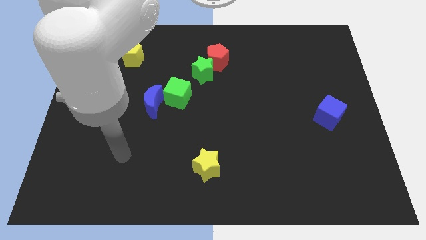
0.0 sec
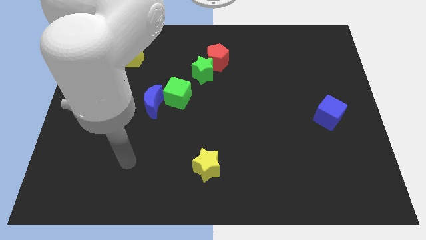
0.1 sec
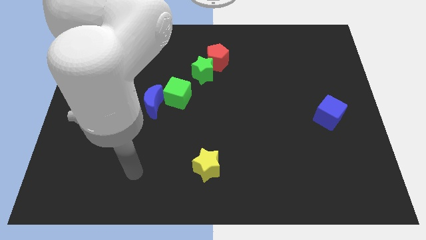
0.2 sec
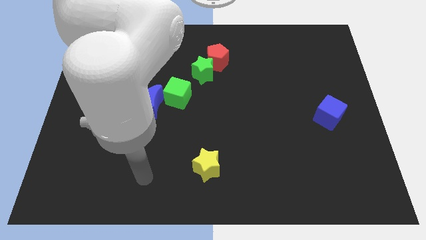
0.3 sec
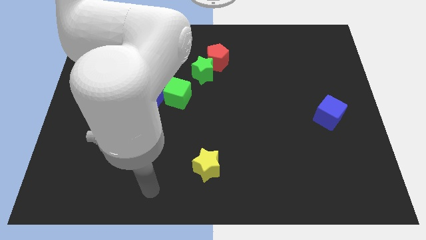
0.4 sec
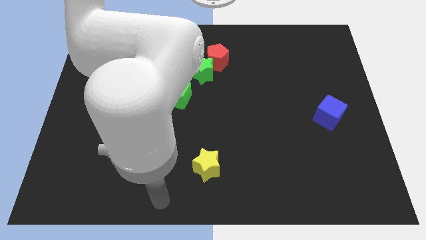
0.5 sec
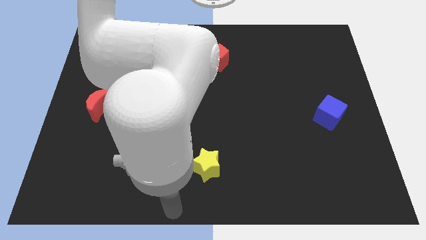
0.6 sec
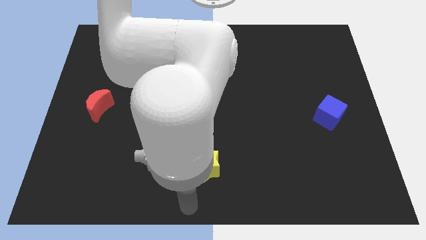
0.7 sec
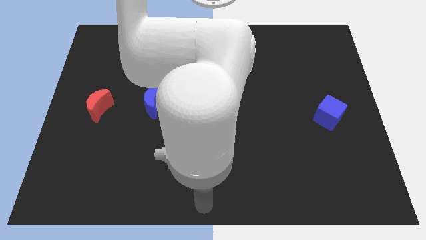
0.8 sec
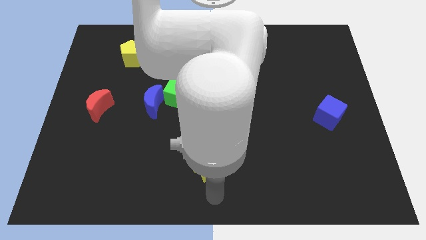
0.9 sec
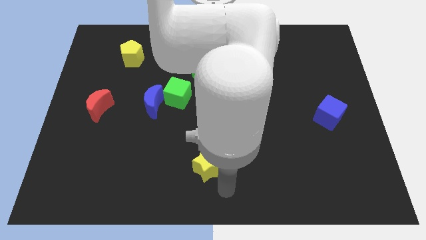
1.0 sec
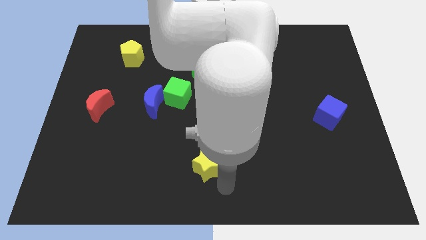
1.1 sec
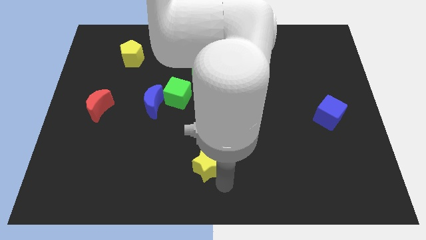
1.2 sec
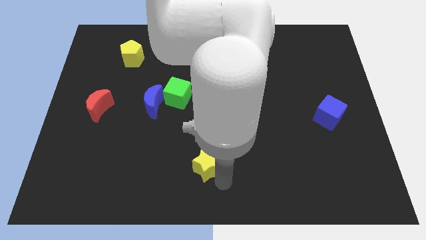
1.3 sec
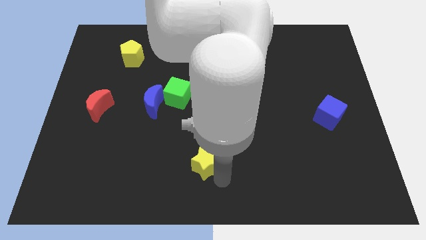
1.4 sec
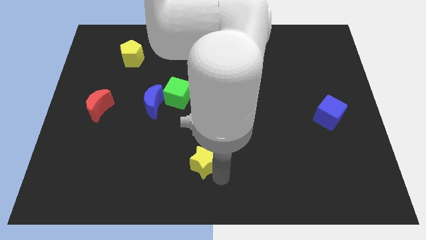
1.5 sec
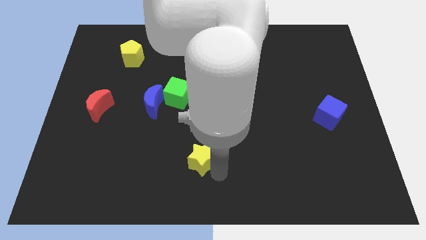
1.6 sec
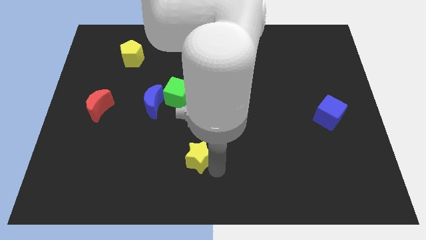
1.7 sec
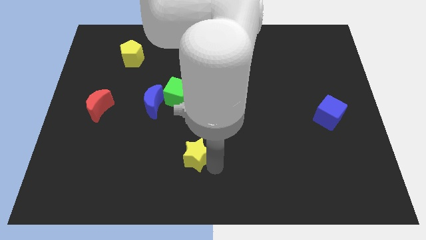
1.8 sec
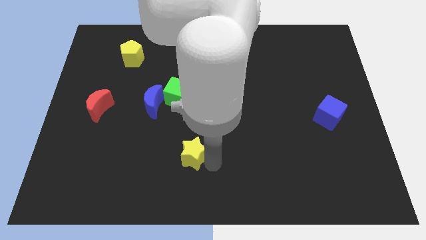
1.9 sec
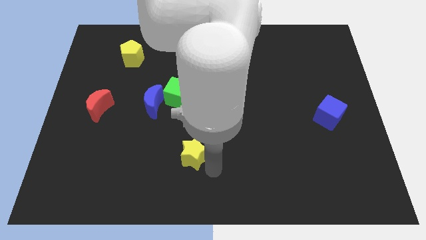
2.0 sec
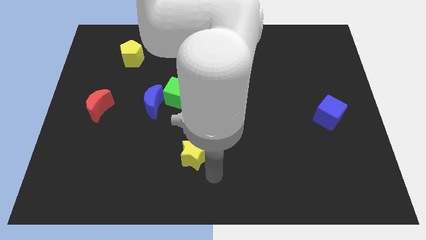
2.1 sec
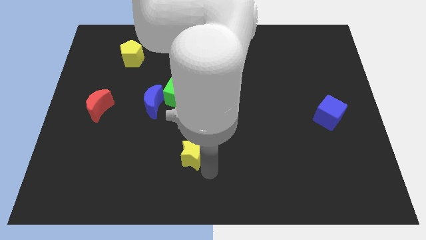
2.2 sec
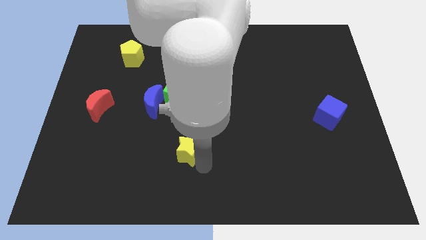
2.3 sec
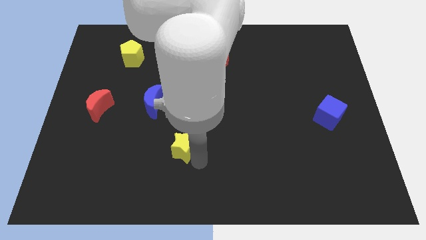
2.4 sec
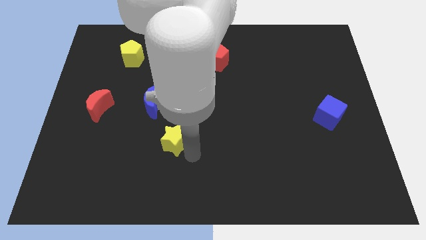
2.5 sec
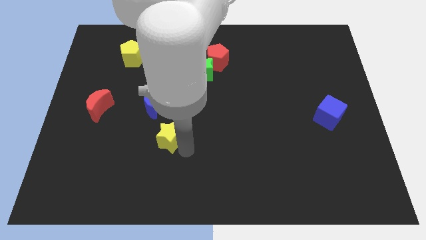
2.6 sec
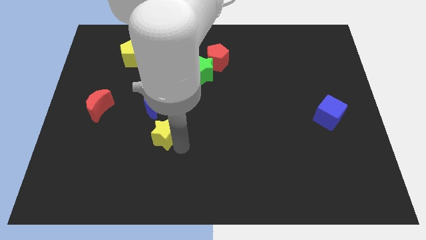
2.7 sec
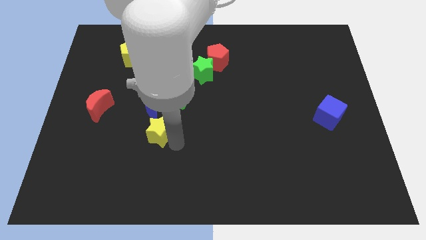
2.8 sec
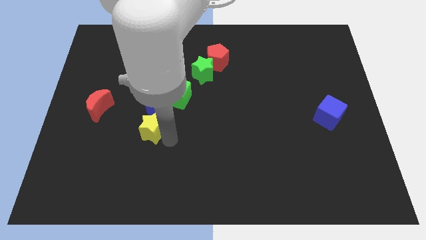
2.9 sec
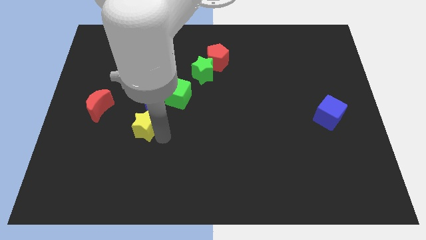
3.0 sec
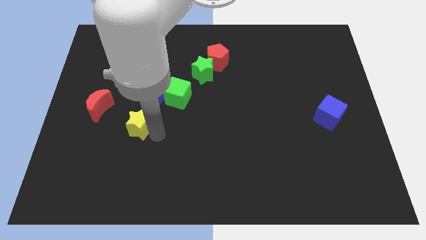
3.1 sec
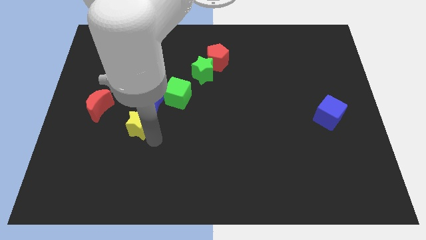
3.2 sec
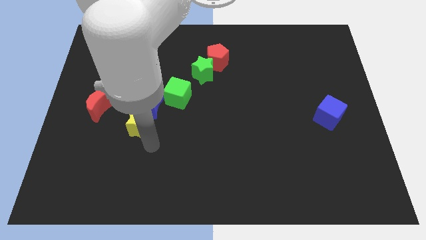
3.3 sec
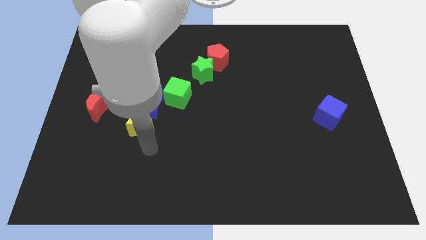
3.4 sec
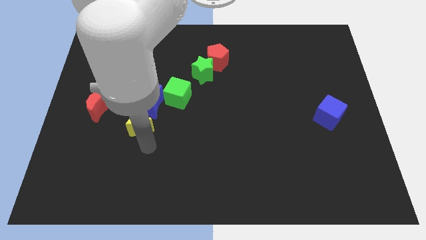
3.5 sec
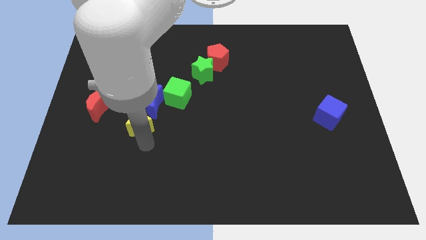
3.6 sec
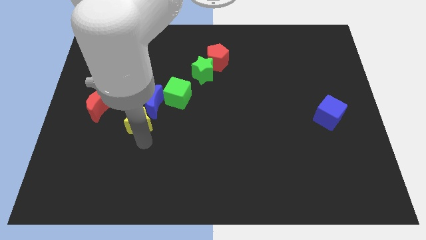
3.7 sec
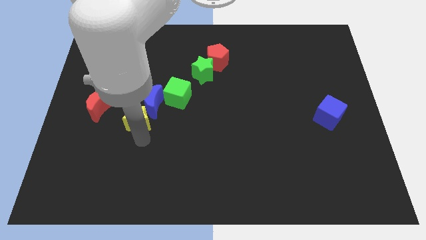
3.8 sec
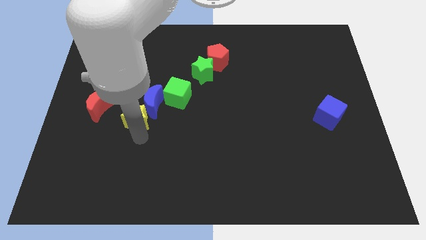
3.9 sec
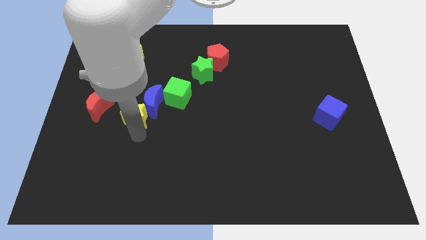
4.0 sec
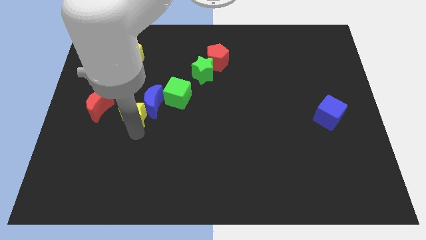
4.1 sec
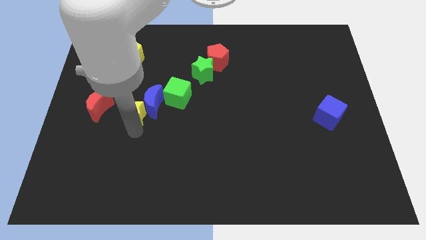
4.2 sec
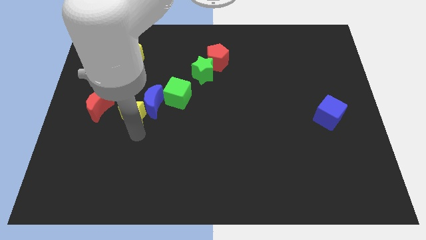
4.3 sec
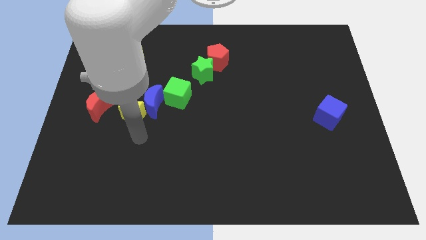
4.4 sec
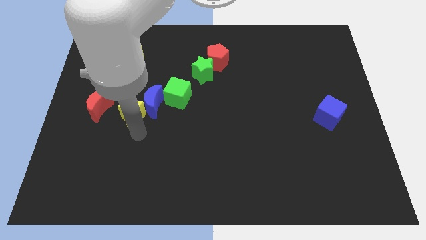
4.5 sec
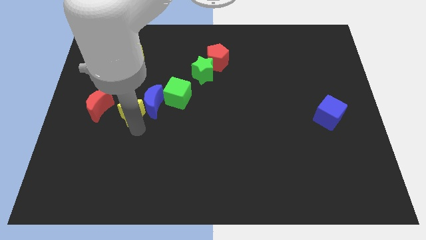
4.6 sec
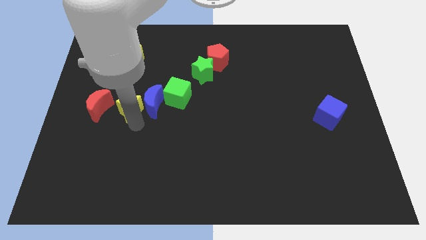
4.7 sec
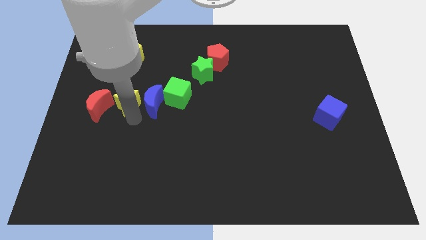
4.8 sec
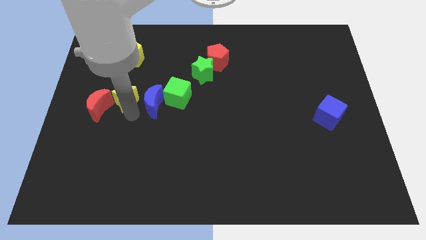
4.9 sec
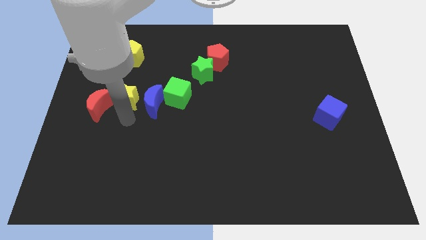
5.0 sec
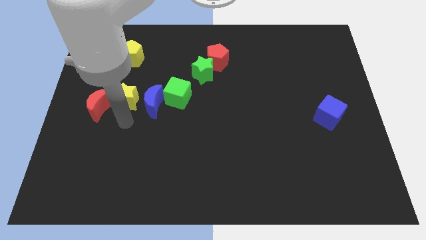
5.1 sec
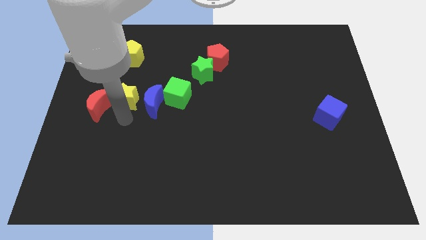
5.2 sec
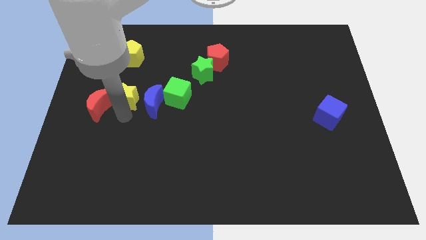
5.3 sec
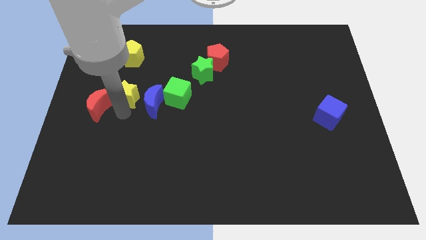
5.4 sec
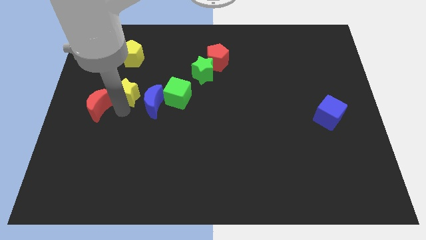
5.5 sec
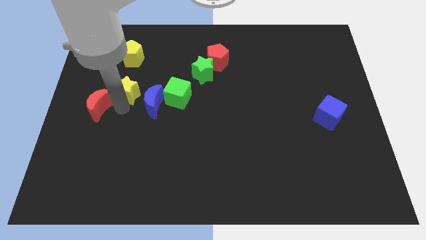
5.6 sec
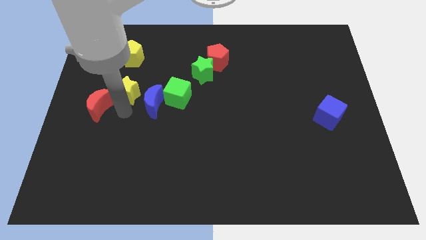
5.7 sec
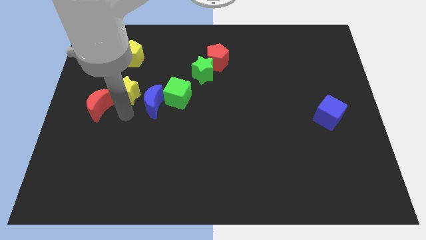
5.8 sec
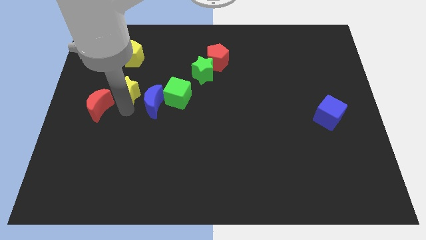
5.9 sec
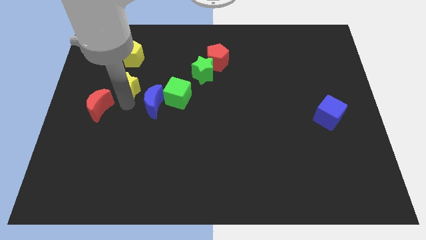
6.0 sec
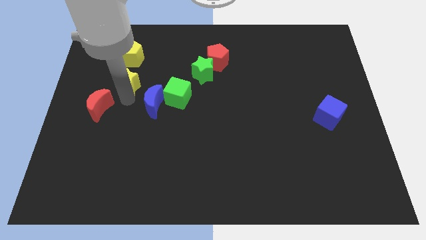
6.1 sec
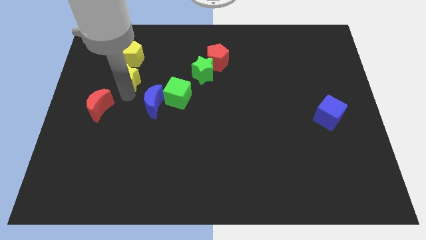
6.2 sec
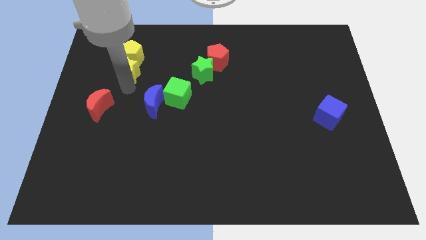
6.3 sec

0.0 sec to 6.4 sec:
put the yellow star towards the yellow pentagon
